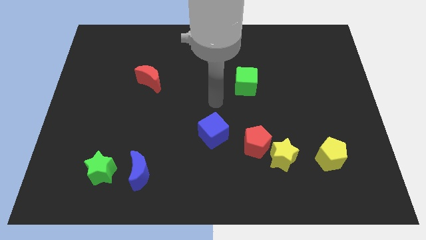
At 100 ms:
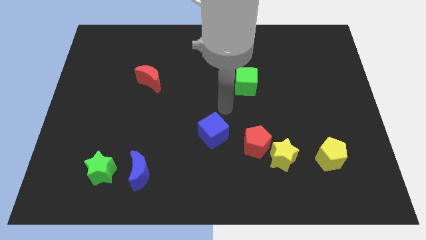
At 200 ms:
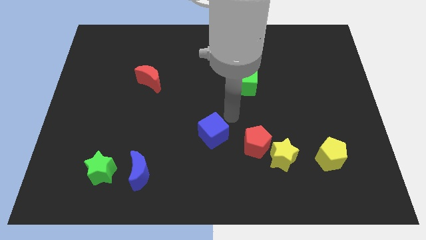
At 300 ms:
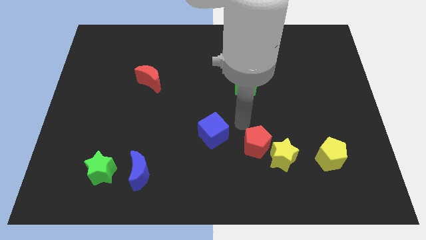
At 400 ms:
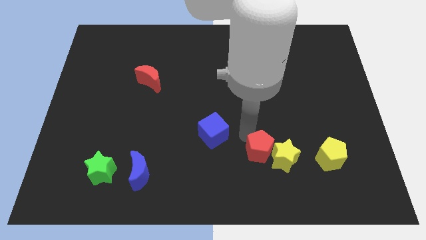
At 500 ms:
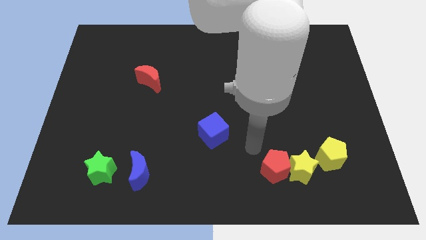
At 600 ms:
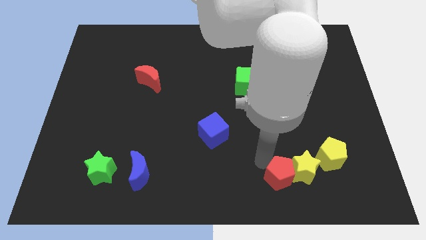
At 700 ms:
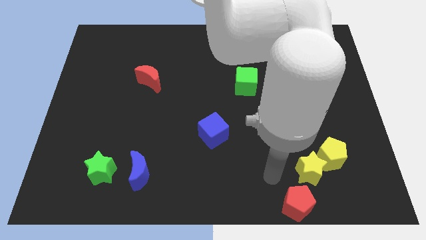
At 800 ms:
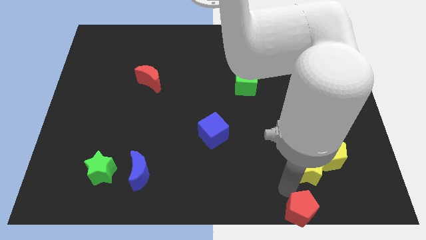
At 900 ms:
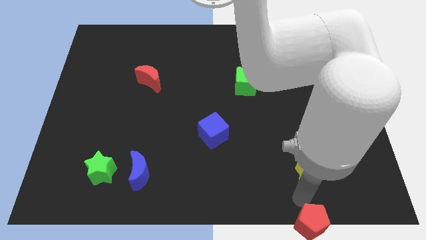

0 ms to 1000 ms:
pull the yellow star apart from the red pentagon

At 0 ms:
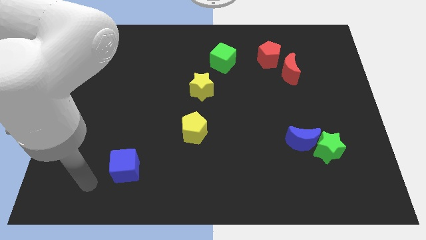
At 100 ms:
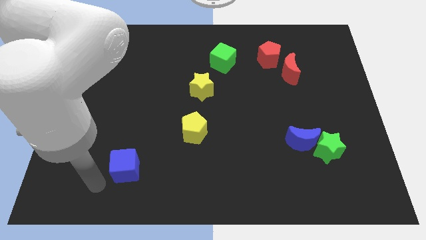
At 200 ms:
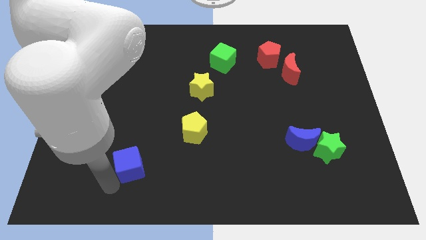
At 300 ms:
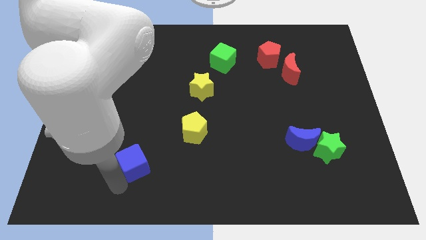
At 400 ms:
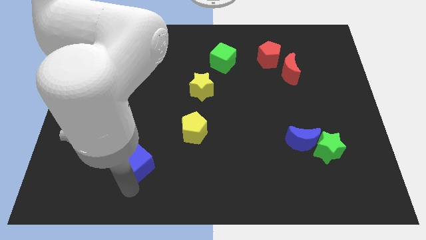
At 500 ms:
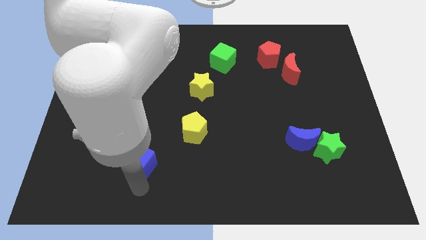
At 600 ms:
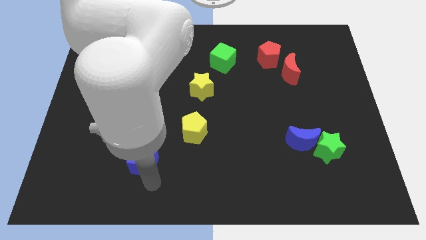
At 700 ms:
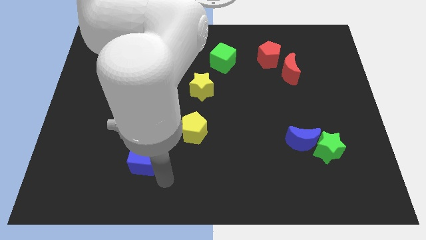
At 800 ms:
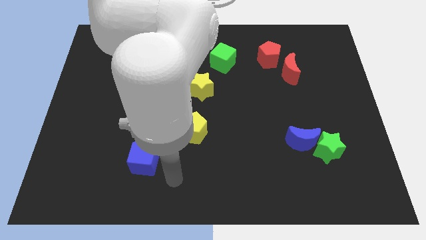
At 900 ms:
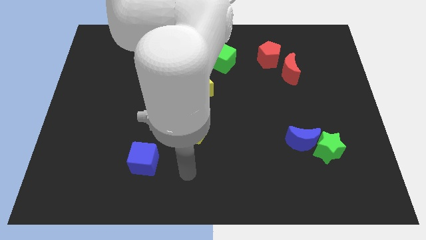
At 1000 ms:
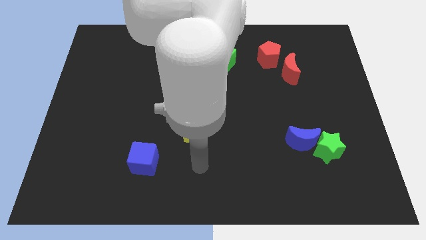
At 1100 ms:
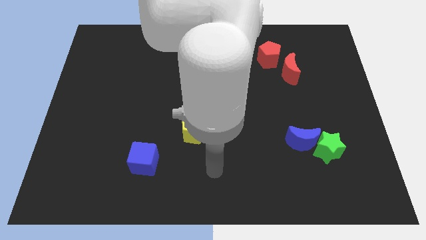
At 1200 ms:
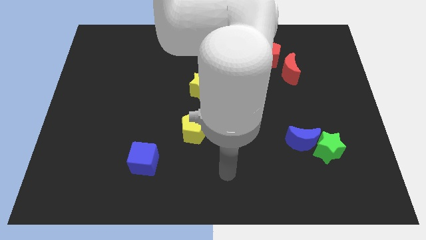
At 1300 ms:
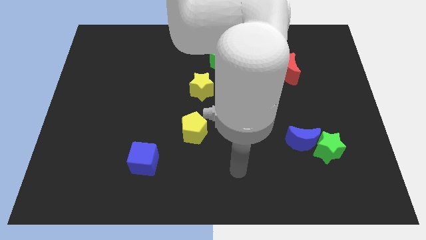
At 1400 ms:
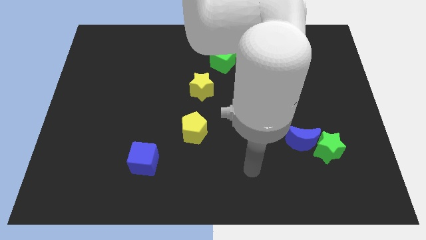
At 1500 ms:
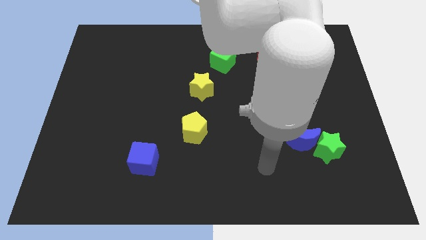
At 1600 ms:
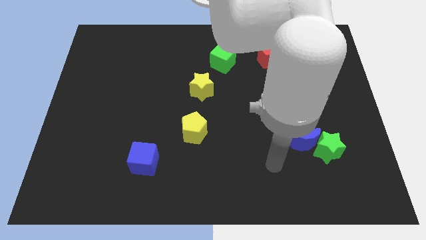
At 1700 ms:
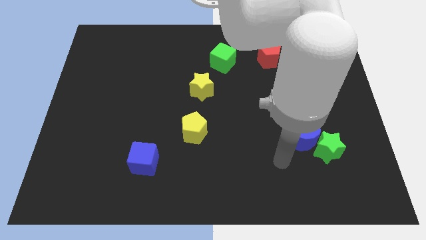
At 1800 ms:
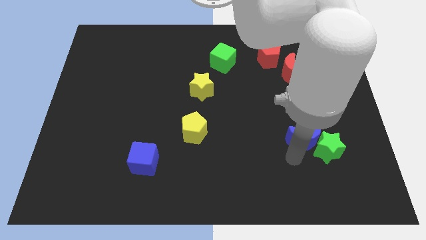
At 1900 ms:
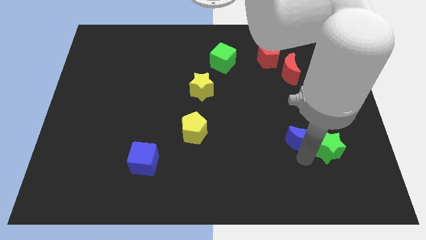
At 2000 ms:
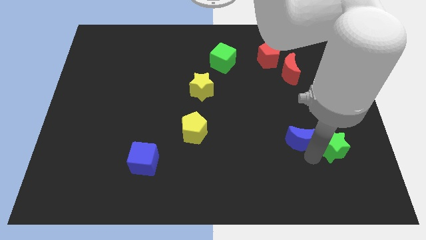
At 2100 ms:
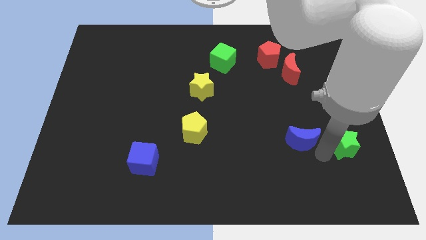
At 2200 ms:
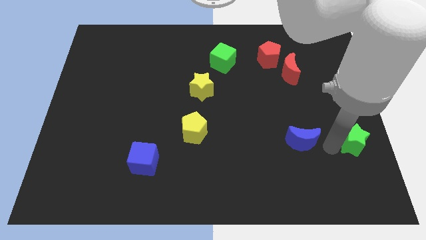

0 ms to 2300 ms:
move the blue moon away from the green star

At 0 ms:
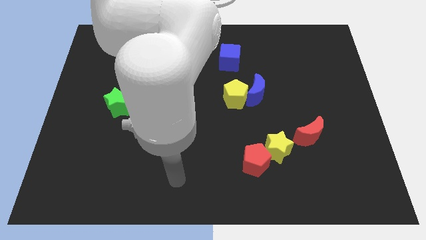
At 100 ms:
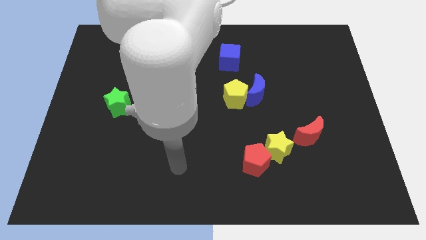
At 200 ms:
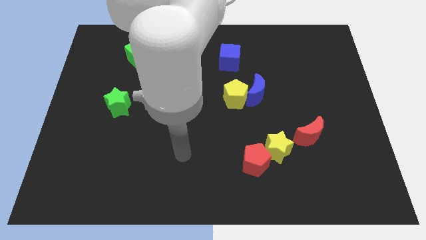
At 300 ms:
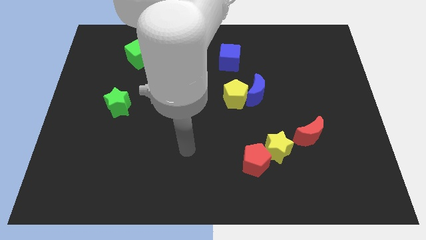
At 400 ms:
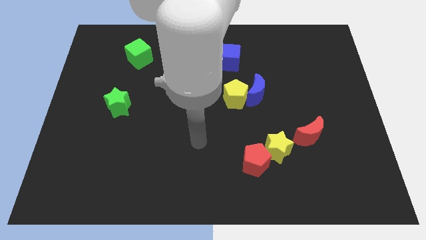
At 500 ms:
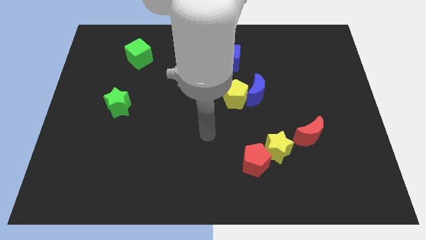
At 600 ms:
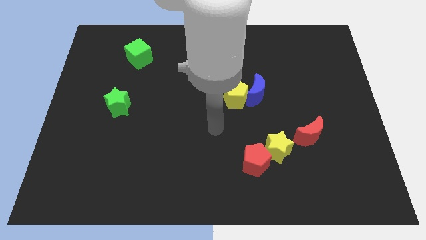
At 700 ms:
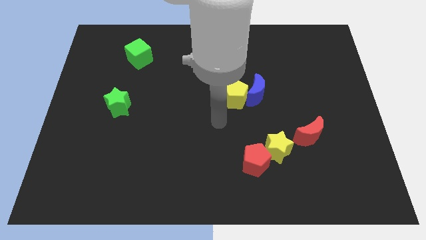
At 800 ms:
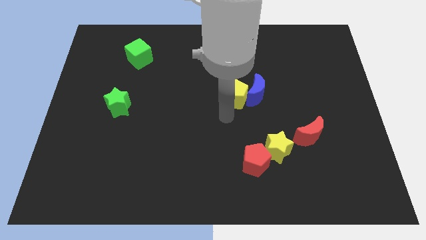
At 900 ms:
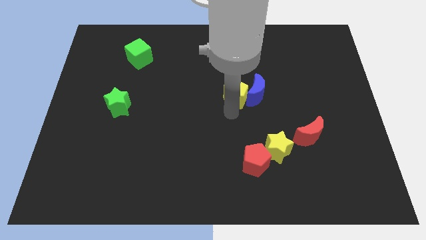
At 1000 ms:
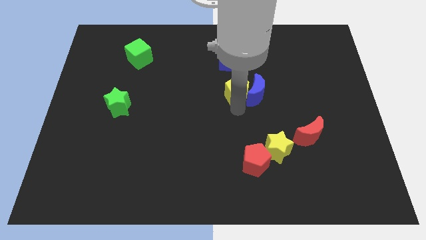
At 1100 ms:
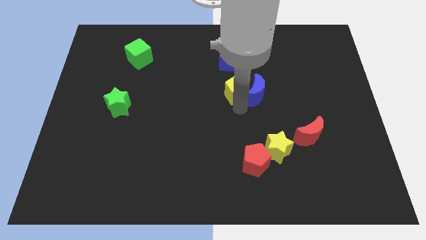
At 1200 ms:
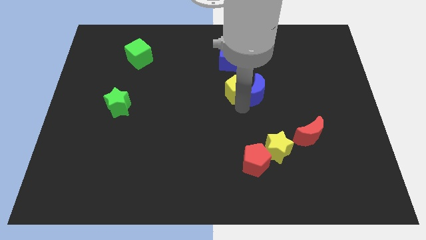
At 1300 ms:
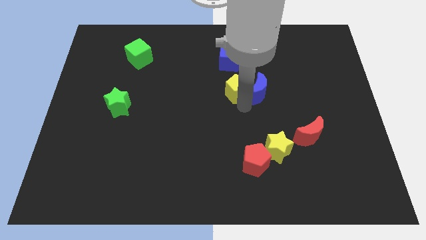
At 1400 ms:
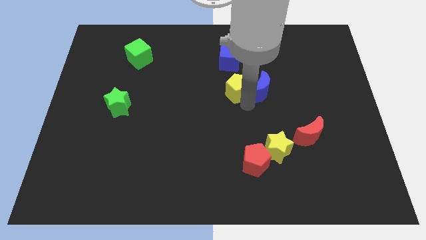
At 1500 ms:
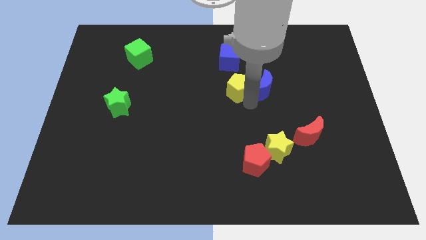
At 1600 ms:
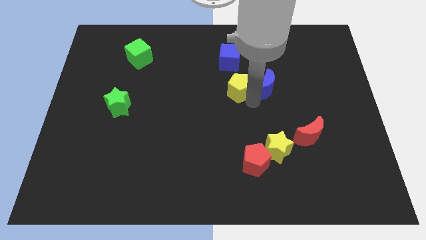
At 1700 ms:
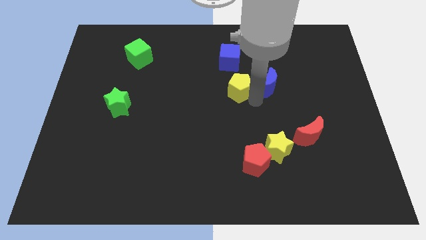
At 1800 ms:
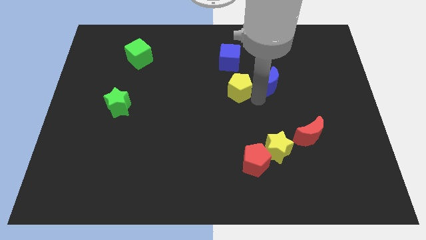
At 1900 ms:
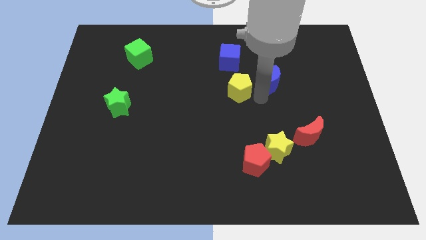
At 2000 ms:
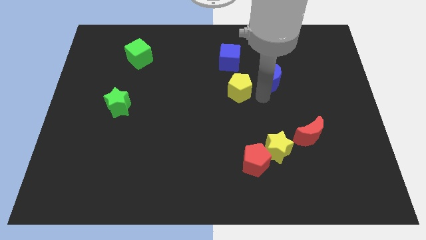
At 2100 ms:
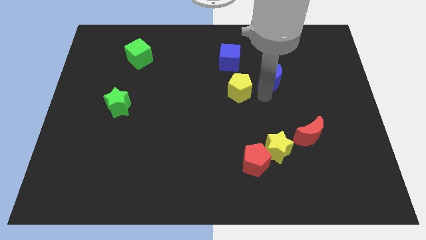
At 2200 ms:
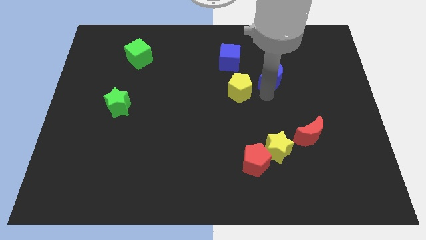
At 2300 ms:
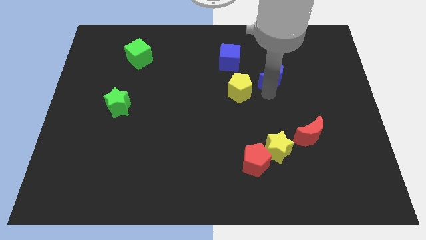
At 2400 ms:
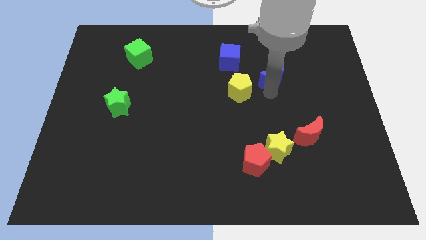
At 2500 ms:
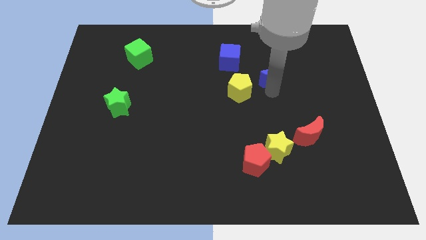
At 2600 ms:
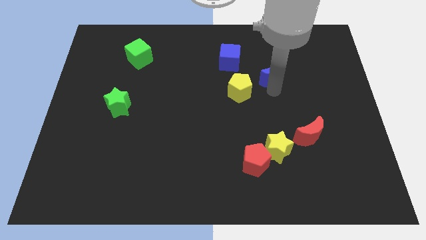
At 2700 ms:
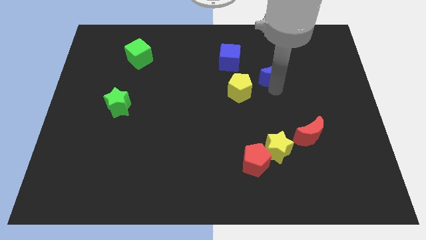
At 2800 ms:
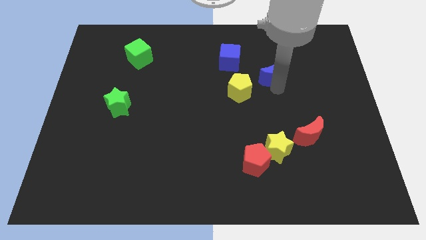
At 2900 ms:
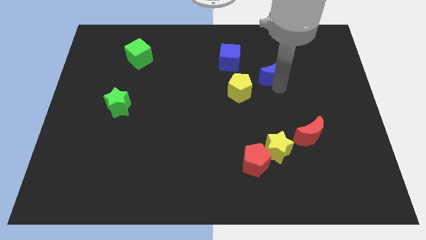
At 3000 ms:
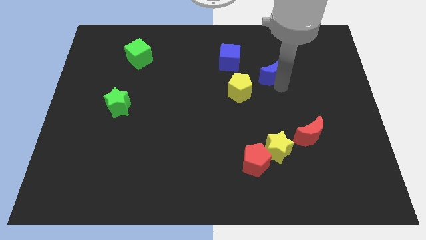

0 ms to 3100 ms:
pull the blue moon apart from the yellow pentagon

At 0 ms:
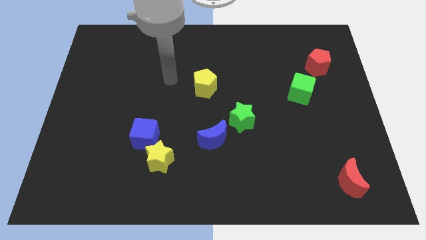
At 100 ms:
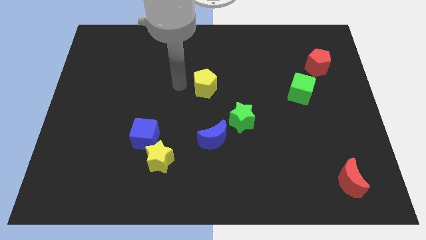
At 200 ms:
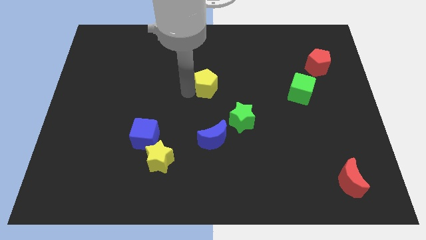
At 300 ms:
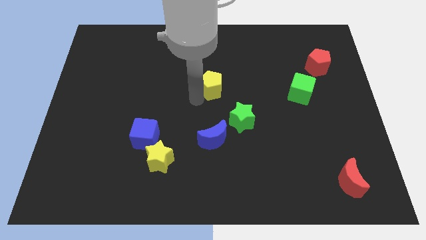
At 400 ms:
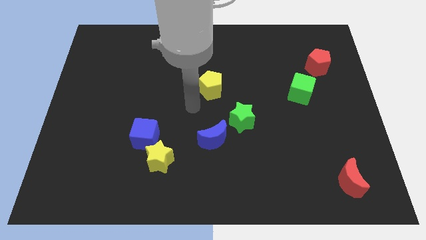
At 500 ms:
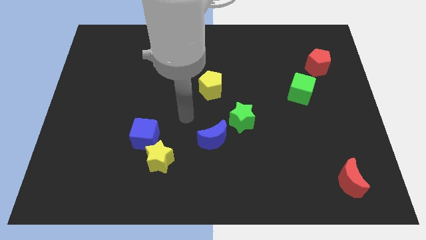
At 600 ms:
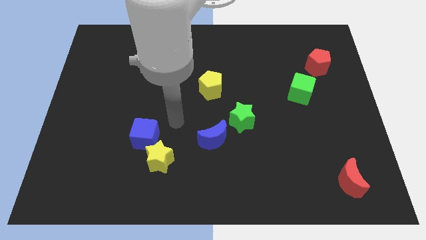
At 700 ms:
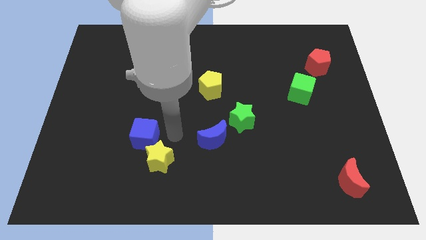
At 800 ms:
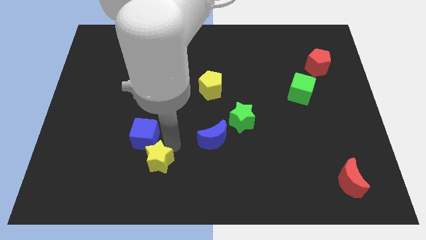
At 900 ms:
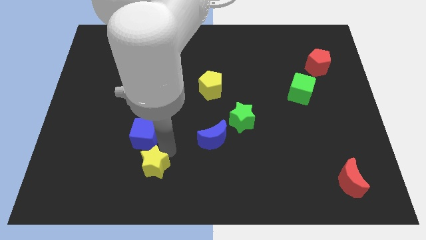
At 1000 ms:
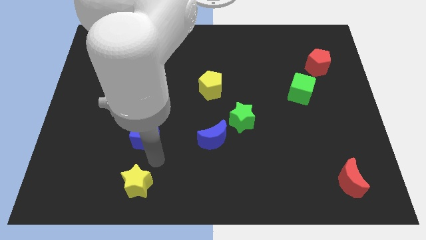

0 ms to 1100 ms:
move the blue cube away from the yellow star

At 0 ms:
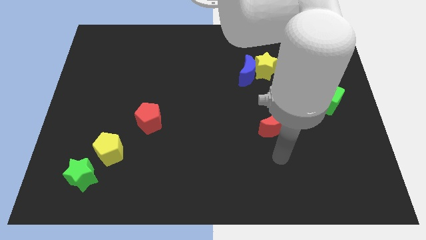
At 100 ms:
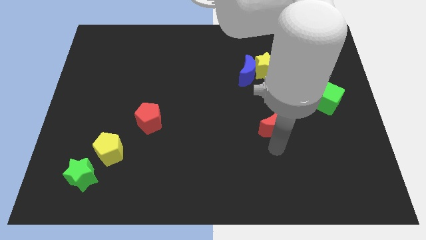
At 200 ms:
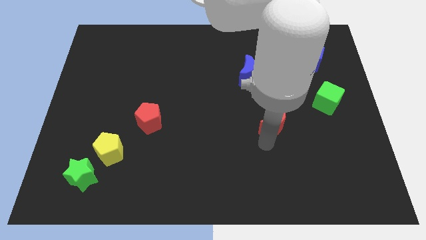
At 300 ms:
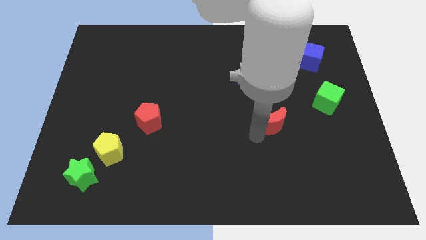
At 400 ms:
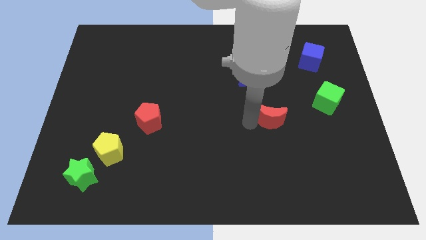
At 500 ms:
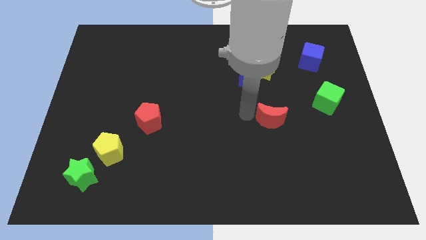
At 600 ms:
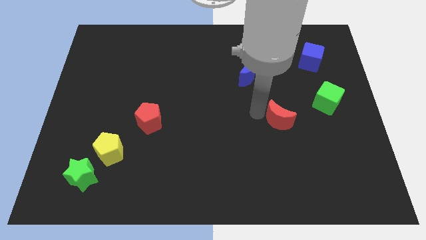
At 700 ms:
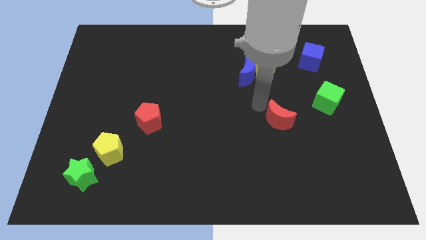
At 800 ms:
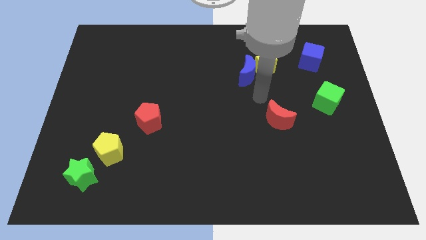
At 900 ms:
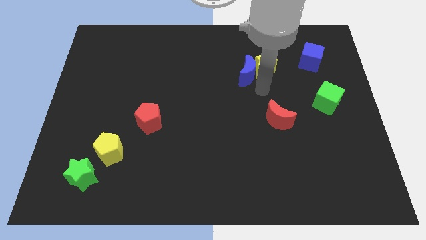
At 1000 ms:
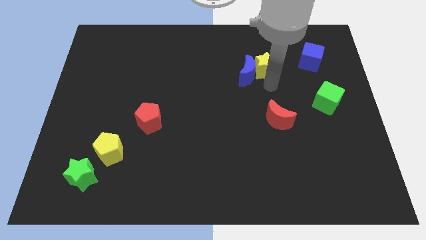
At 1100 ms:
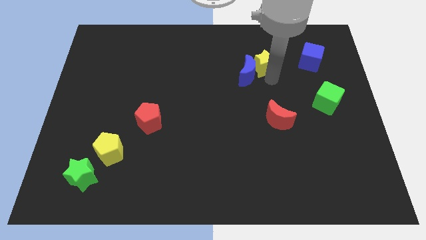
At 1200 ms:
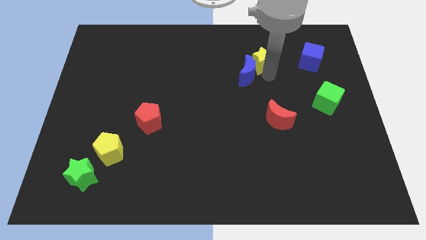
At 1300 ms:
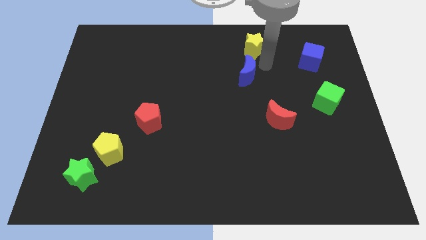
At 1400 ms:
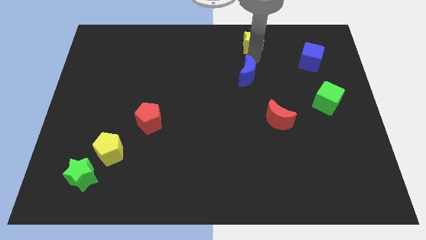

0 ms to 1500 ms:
pull the blue moon apart from the yellow star

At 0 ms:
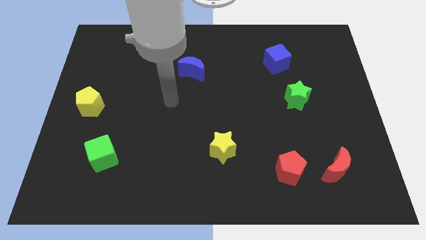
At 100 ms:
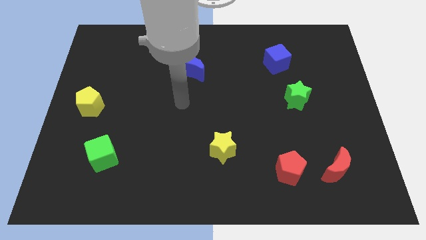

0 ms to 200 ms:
pull the red moon apart from the red pentagon
